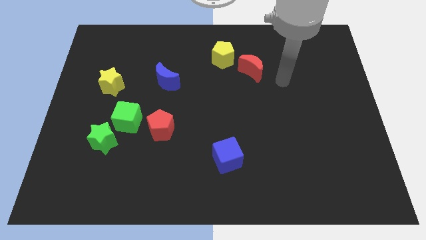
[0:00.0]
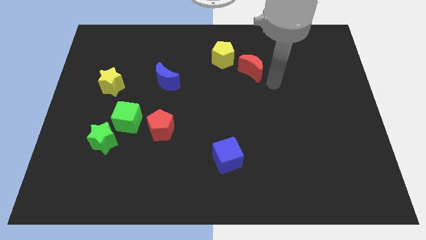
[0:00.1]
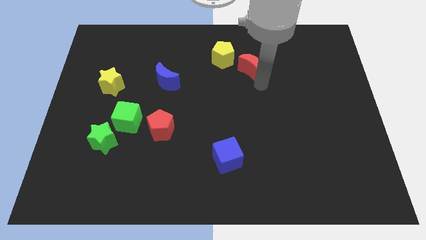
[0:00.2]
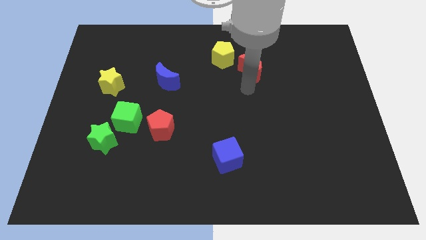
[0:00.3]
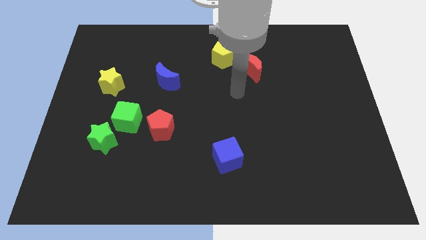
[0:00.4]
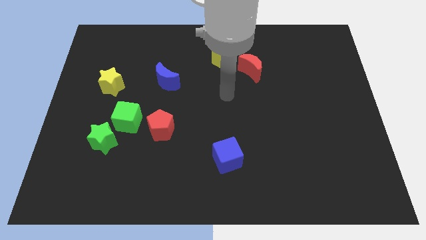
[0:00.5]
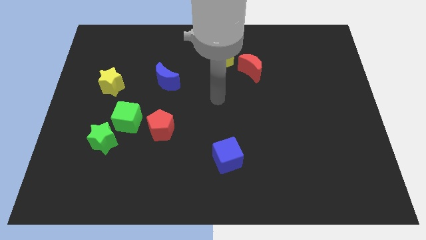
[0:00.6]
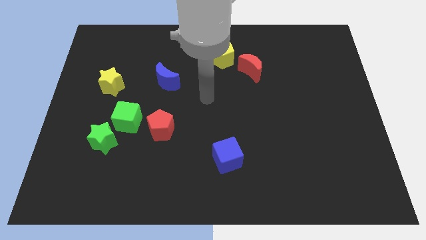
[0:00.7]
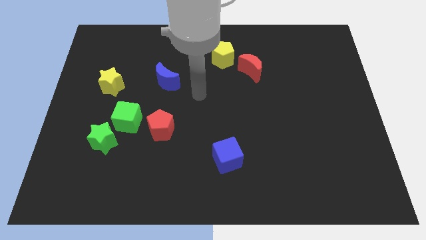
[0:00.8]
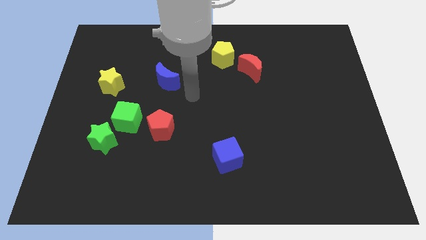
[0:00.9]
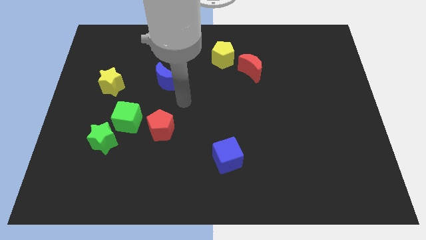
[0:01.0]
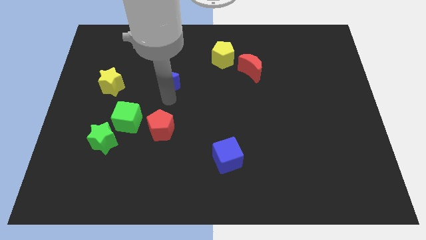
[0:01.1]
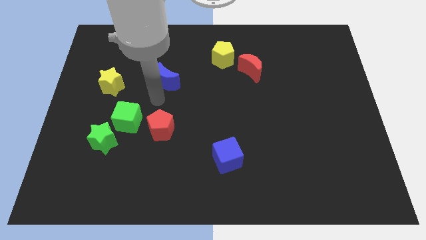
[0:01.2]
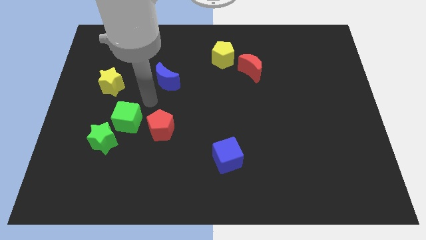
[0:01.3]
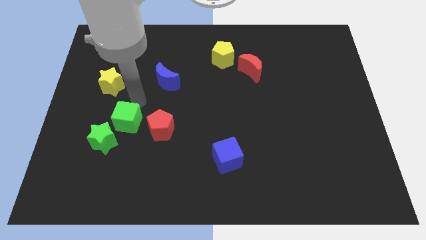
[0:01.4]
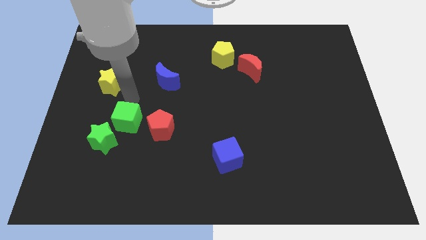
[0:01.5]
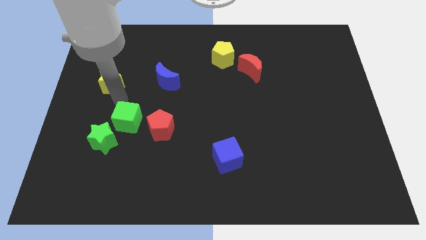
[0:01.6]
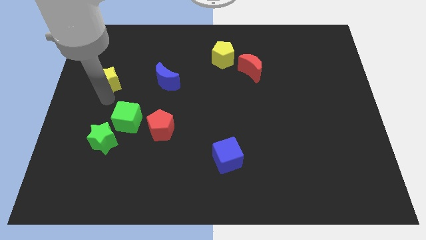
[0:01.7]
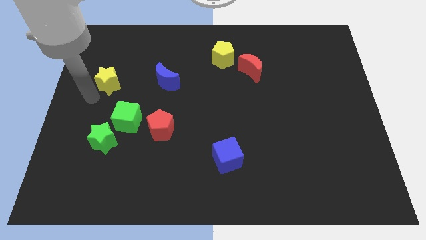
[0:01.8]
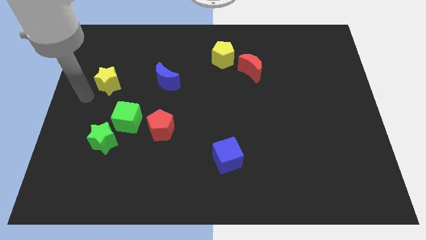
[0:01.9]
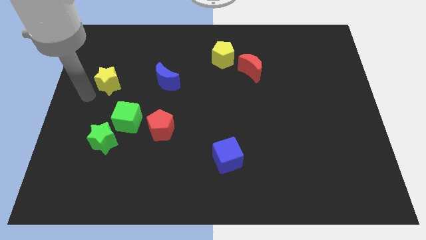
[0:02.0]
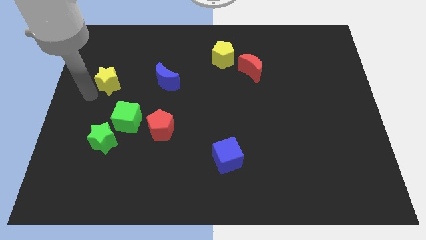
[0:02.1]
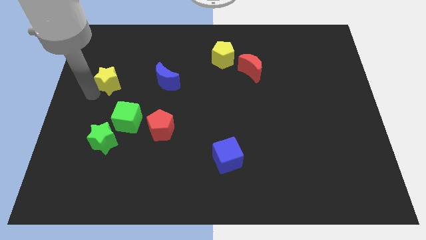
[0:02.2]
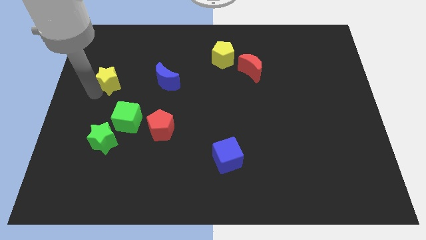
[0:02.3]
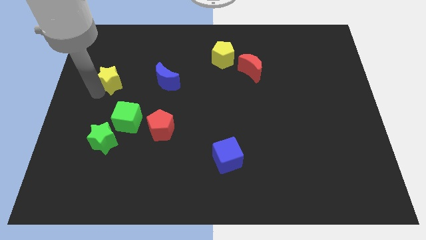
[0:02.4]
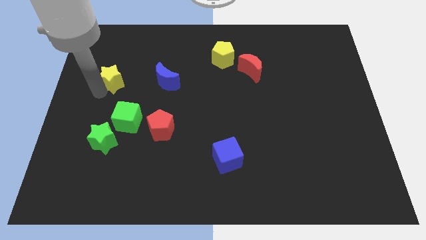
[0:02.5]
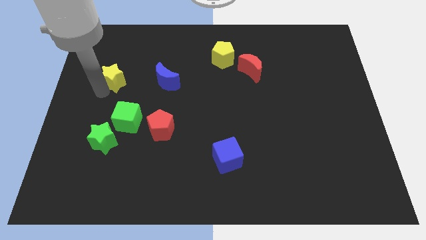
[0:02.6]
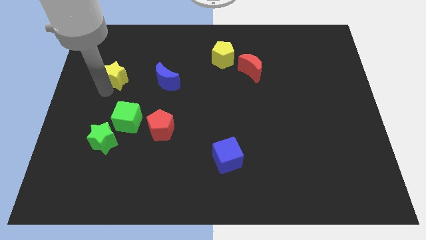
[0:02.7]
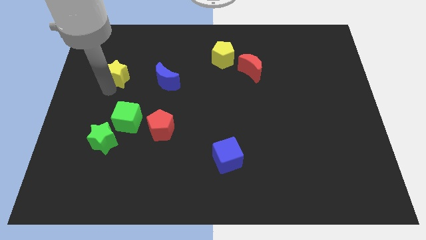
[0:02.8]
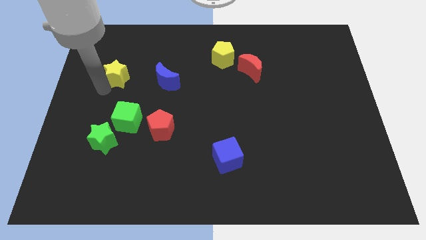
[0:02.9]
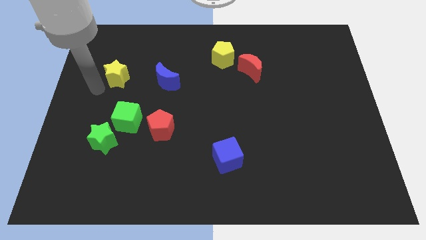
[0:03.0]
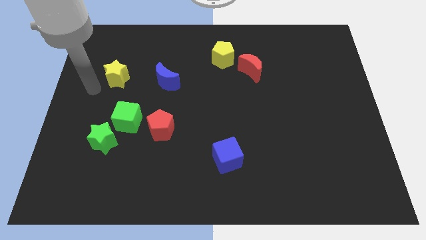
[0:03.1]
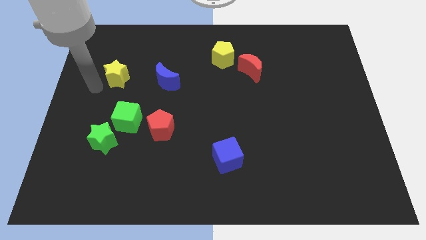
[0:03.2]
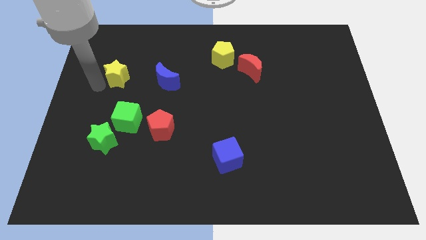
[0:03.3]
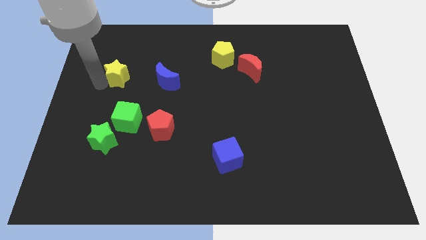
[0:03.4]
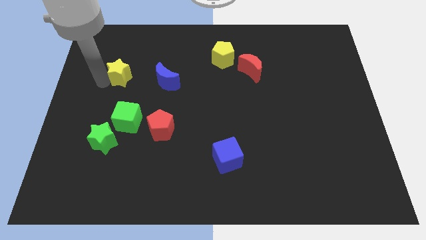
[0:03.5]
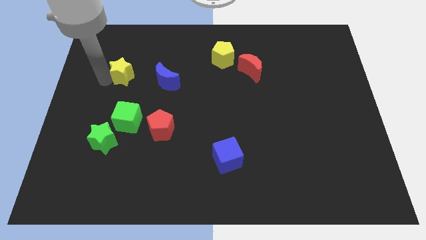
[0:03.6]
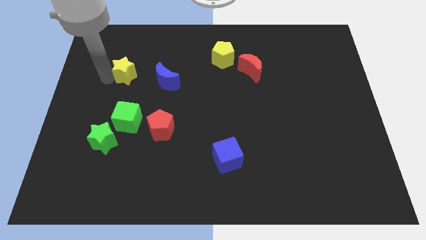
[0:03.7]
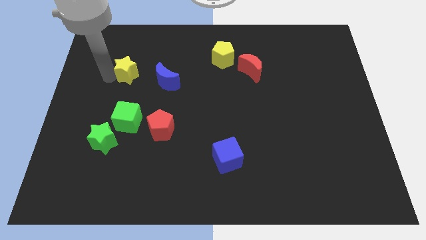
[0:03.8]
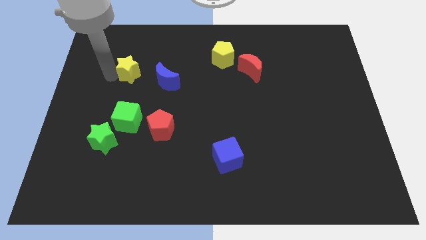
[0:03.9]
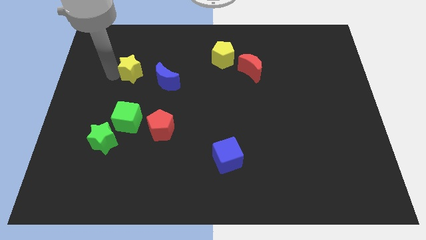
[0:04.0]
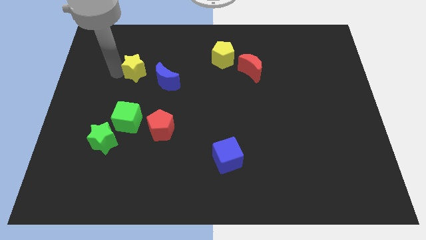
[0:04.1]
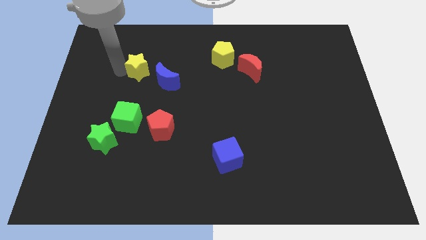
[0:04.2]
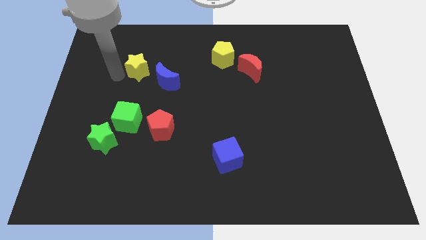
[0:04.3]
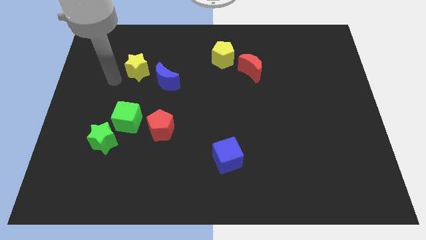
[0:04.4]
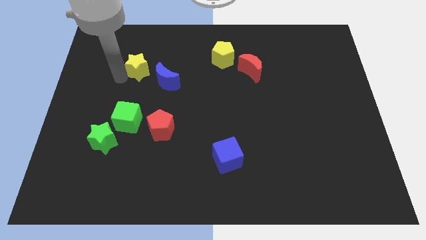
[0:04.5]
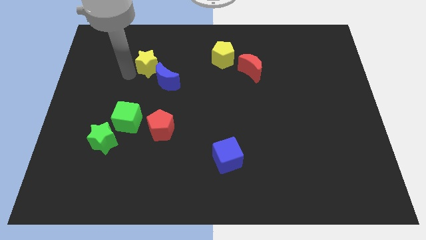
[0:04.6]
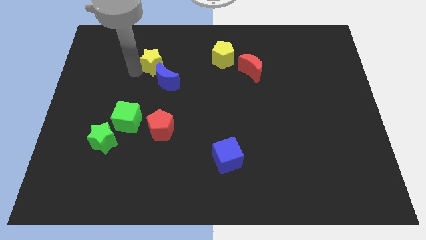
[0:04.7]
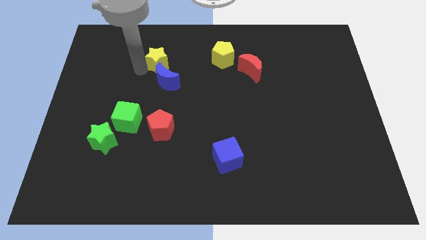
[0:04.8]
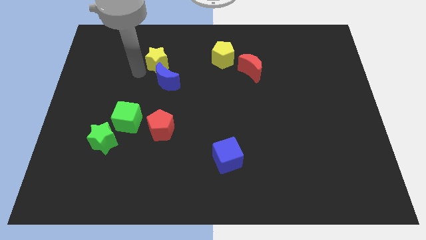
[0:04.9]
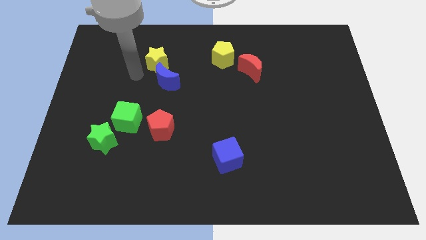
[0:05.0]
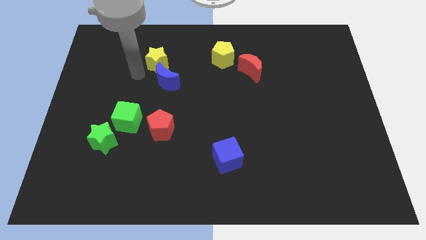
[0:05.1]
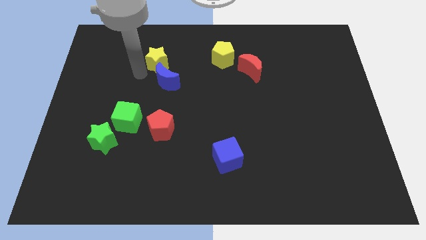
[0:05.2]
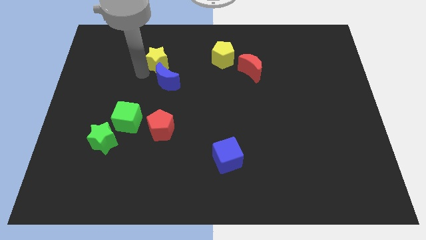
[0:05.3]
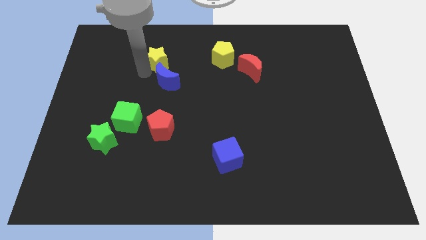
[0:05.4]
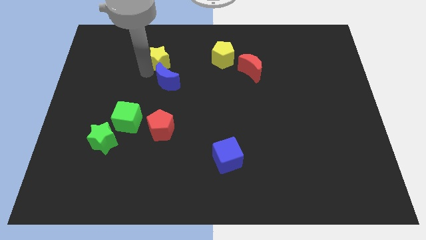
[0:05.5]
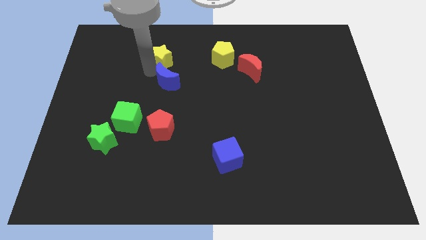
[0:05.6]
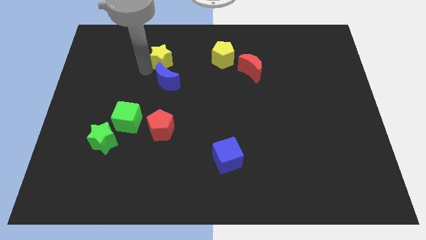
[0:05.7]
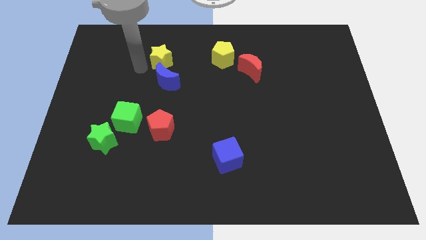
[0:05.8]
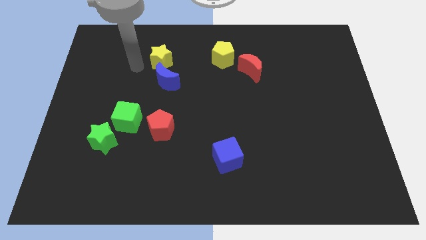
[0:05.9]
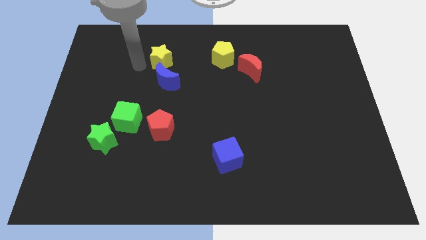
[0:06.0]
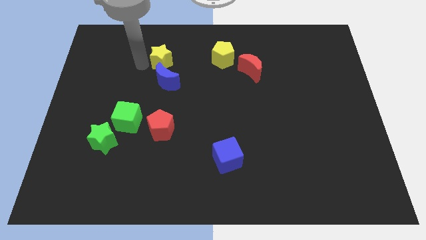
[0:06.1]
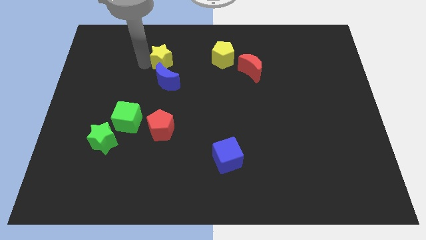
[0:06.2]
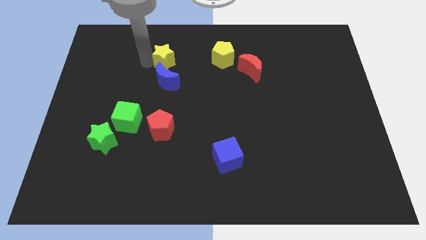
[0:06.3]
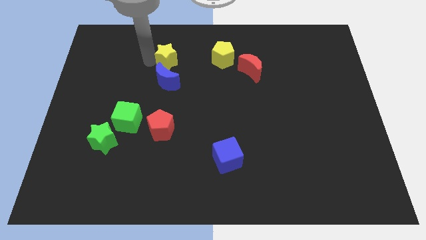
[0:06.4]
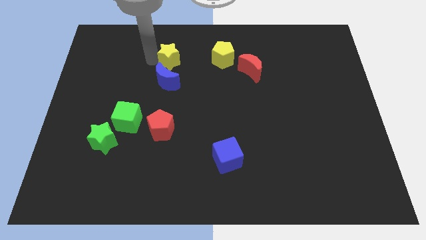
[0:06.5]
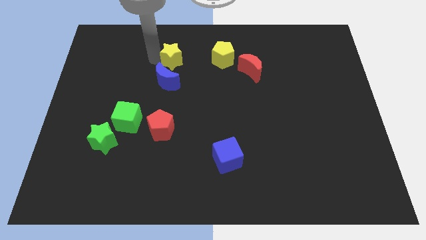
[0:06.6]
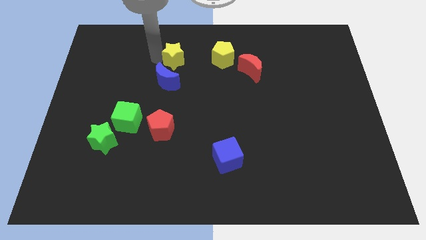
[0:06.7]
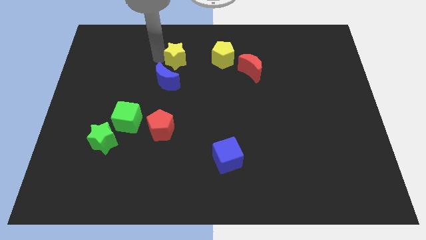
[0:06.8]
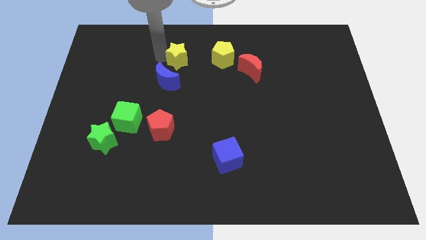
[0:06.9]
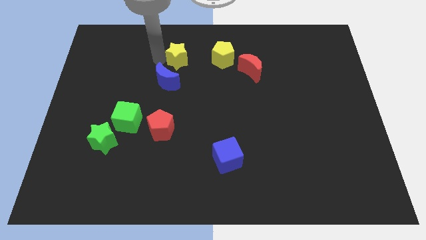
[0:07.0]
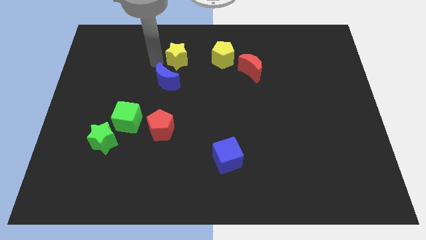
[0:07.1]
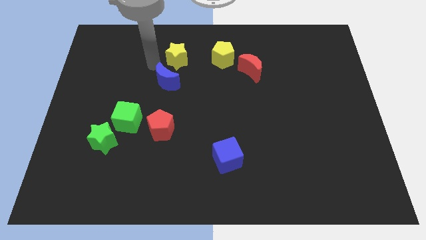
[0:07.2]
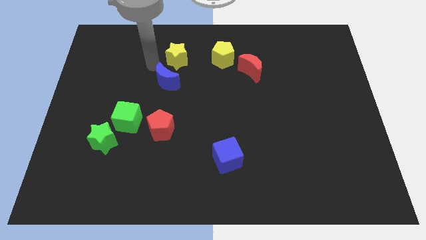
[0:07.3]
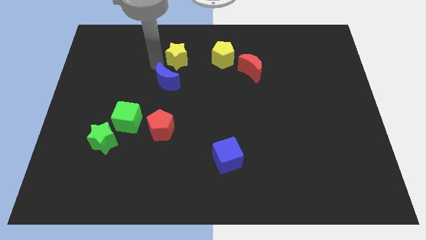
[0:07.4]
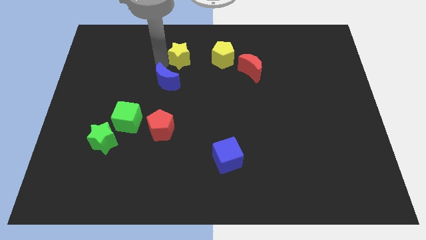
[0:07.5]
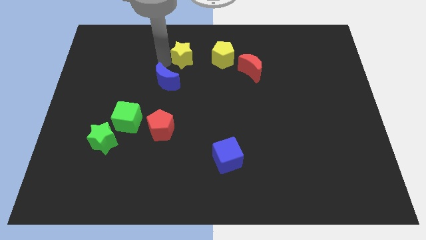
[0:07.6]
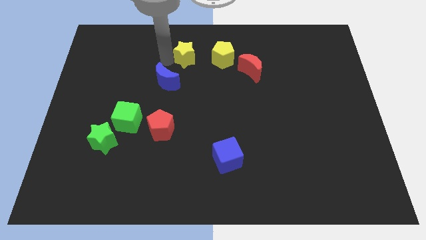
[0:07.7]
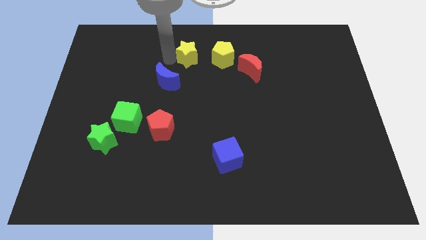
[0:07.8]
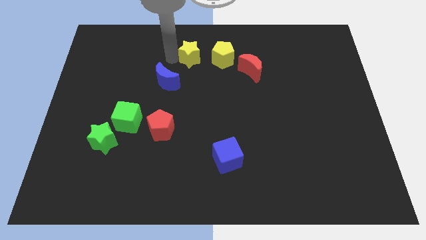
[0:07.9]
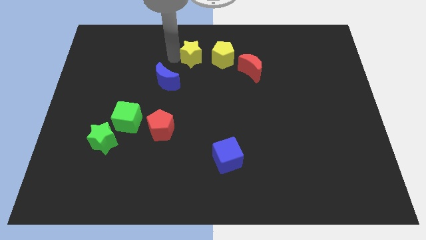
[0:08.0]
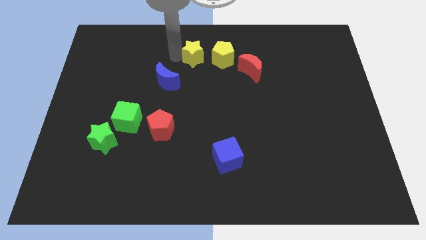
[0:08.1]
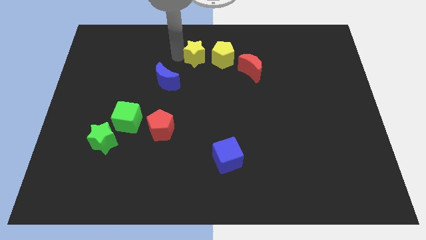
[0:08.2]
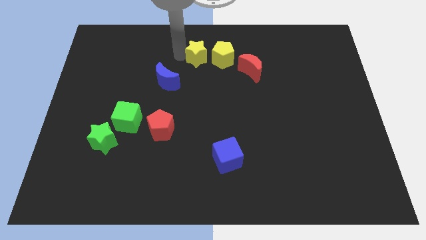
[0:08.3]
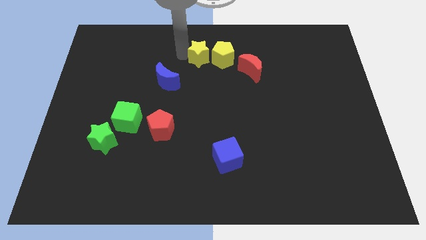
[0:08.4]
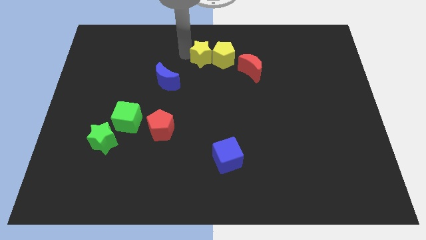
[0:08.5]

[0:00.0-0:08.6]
put the yellow star to the yellow pentagon
